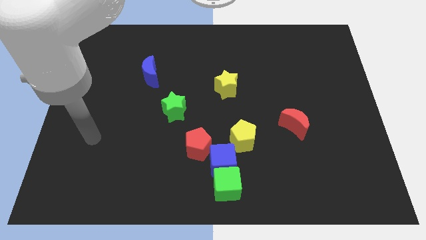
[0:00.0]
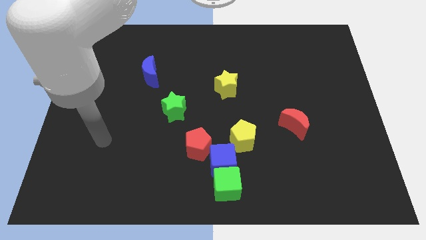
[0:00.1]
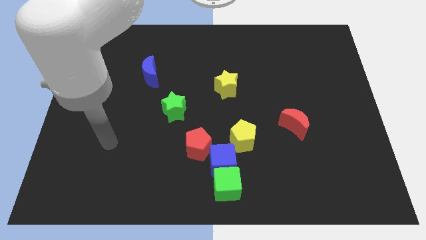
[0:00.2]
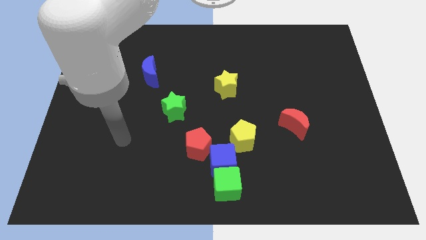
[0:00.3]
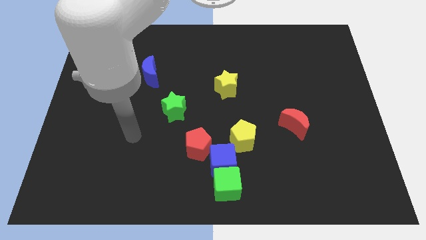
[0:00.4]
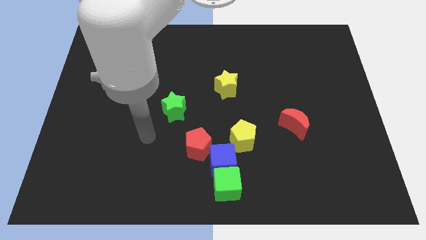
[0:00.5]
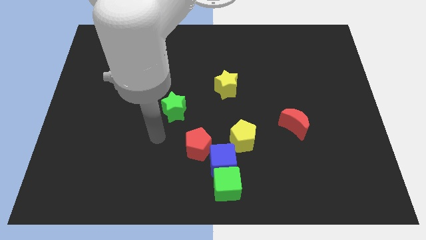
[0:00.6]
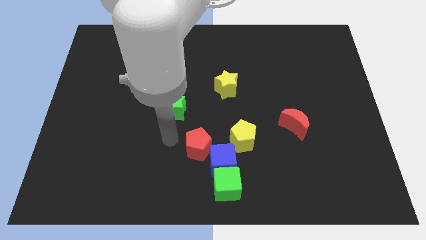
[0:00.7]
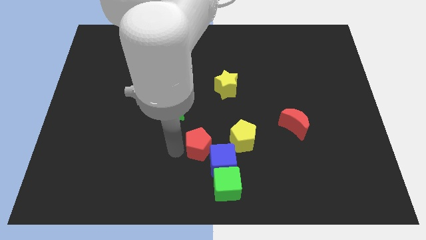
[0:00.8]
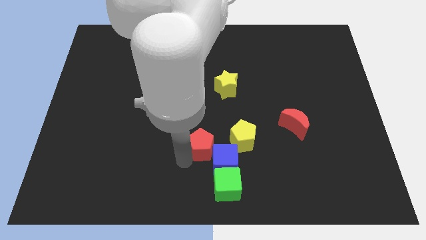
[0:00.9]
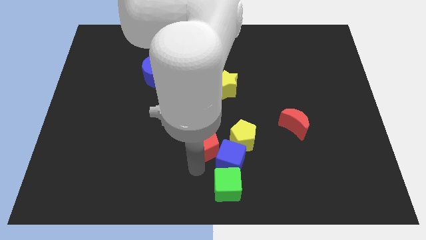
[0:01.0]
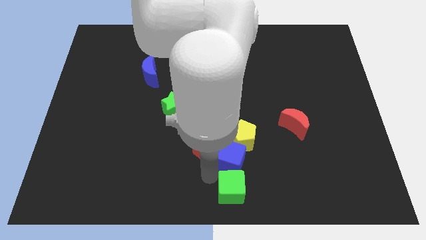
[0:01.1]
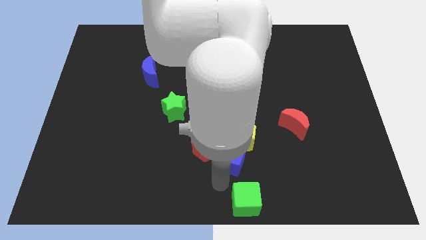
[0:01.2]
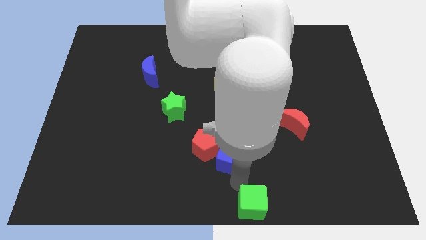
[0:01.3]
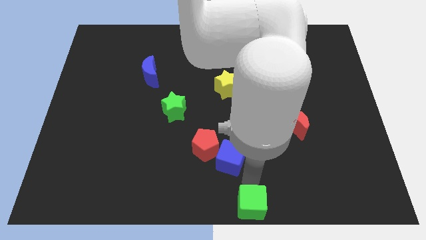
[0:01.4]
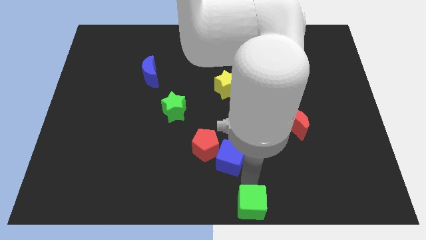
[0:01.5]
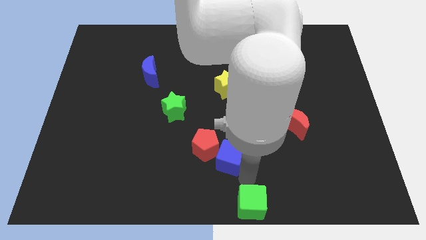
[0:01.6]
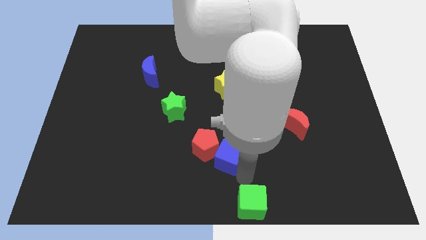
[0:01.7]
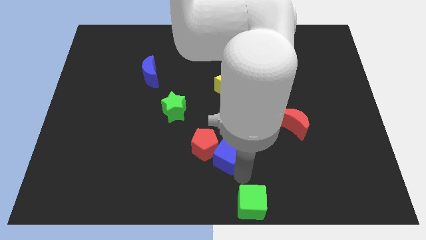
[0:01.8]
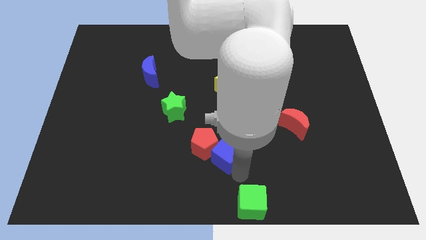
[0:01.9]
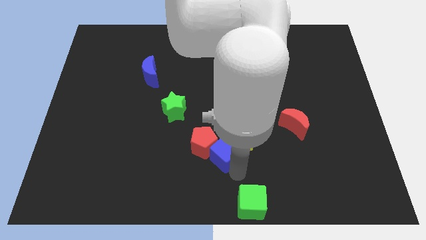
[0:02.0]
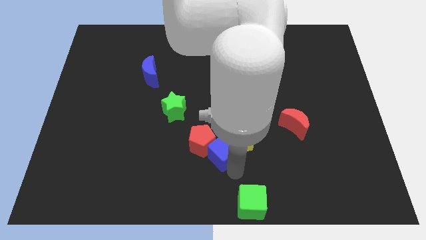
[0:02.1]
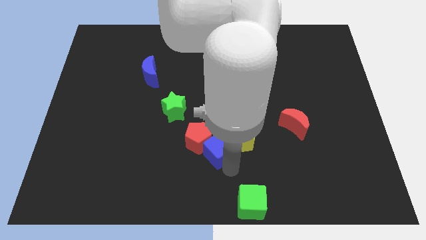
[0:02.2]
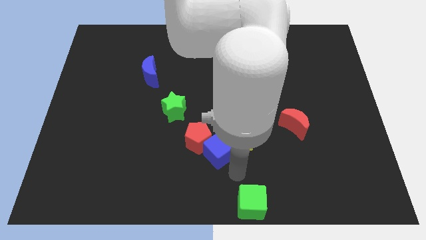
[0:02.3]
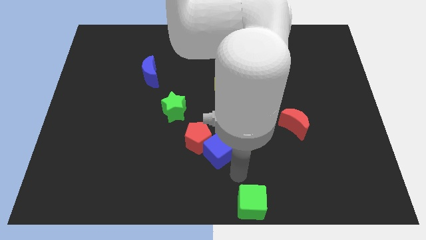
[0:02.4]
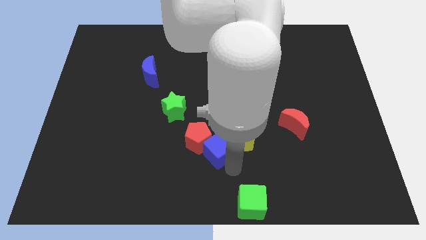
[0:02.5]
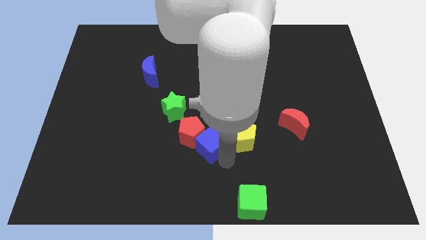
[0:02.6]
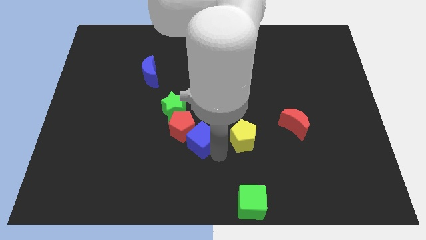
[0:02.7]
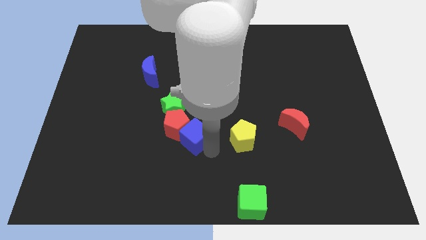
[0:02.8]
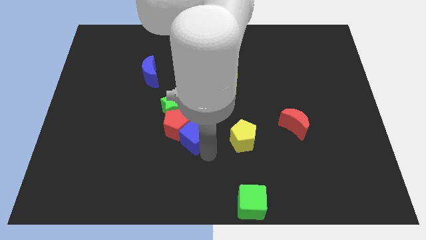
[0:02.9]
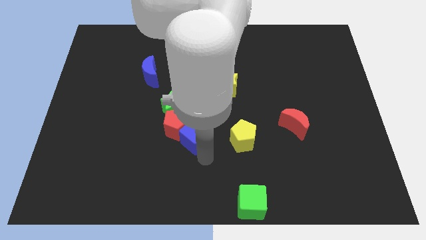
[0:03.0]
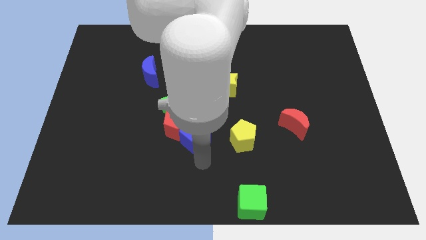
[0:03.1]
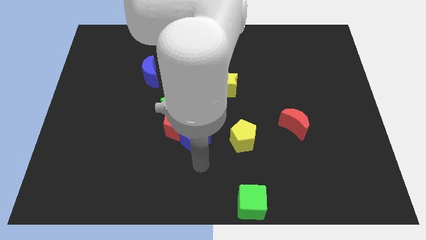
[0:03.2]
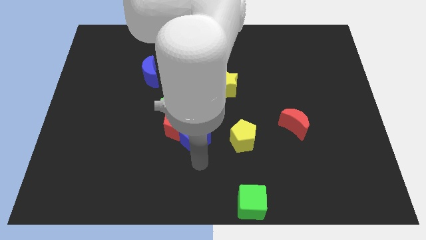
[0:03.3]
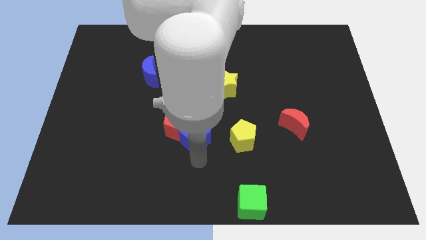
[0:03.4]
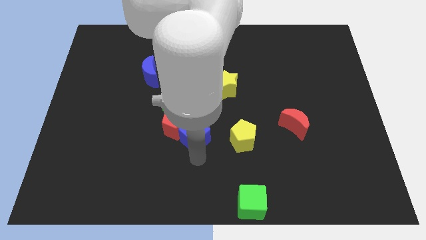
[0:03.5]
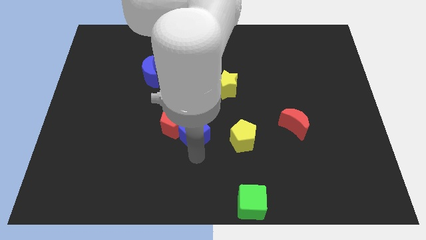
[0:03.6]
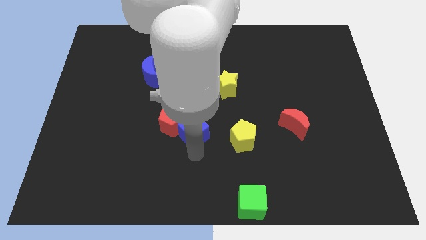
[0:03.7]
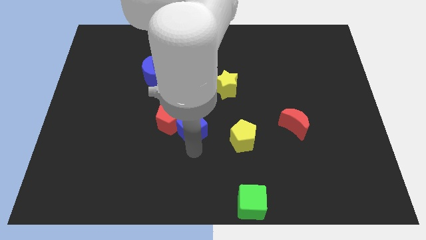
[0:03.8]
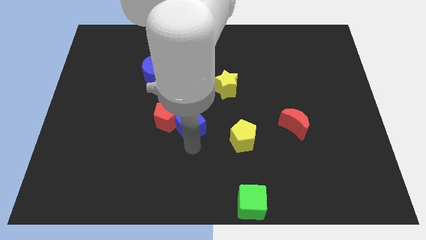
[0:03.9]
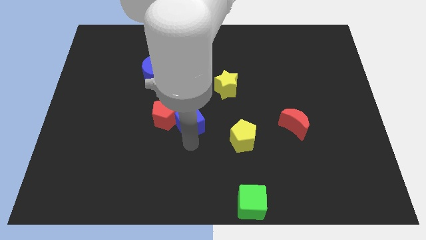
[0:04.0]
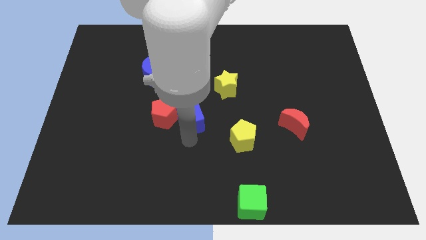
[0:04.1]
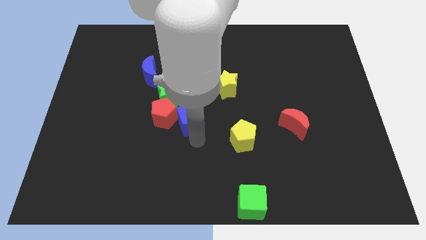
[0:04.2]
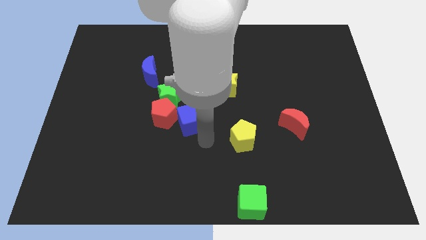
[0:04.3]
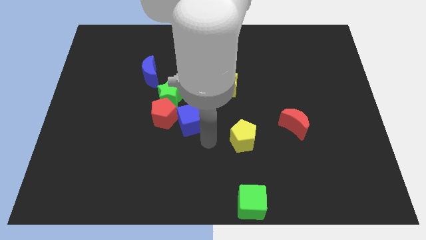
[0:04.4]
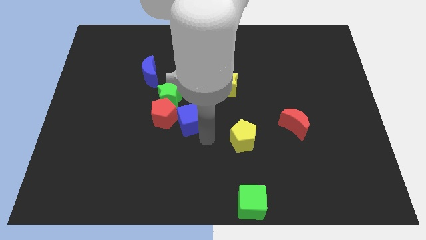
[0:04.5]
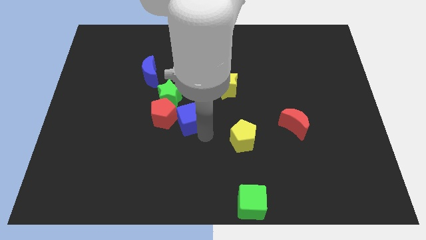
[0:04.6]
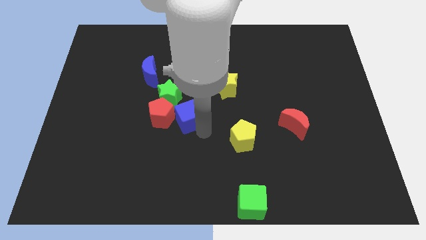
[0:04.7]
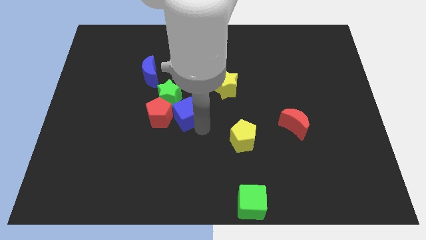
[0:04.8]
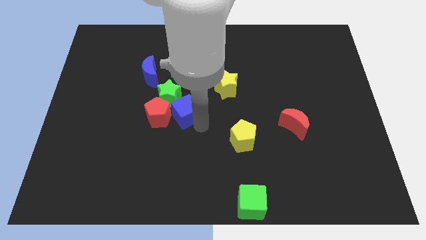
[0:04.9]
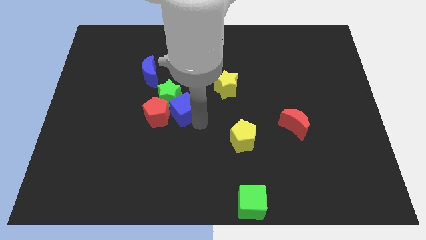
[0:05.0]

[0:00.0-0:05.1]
move the blue cube next to the green star
